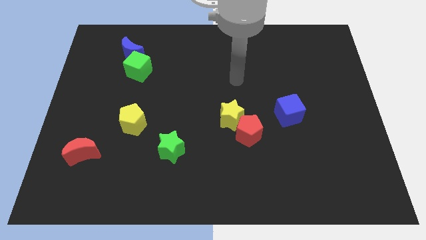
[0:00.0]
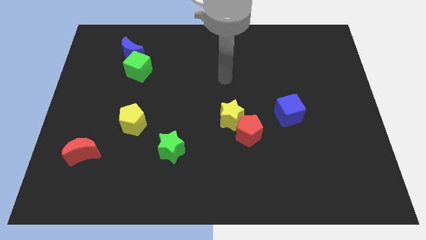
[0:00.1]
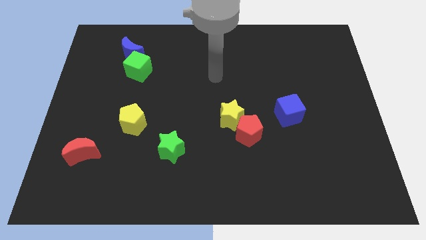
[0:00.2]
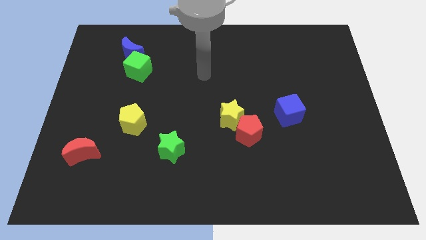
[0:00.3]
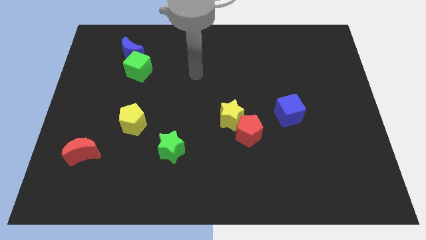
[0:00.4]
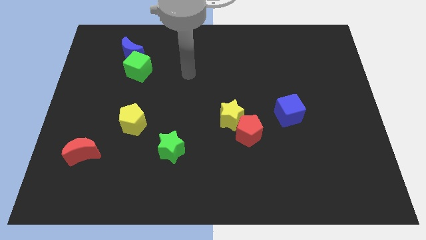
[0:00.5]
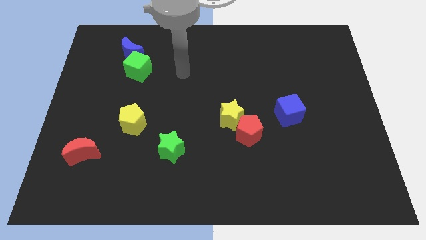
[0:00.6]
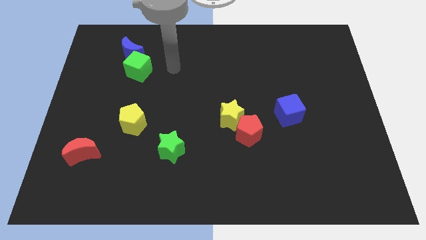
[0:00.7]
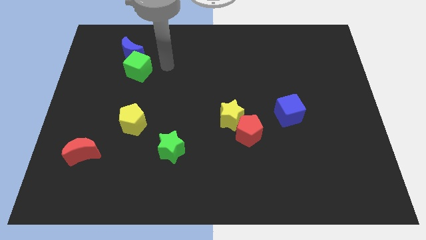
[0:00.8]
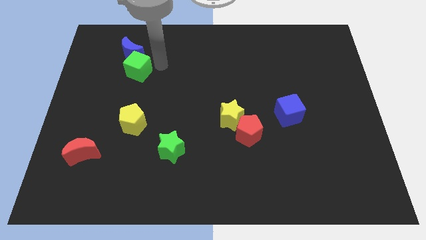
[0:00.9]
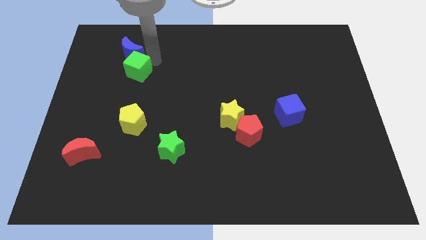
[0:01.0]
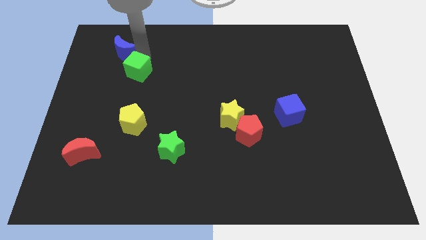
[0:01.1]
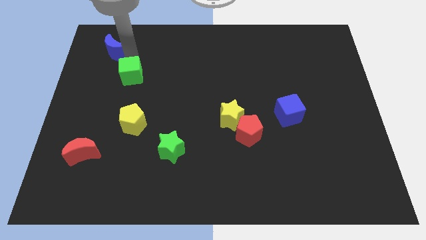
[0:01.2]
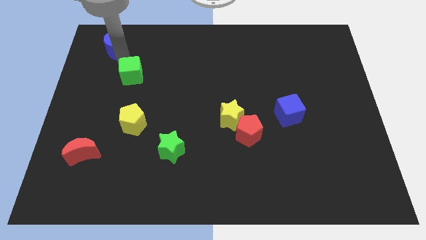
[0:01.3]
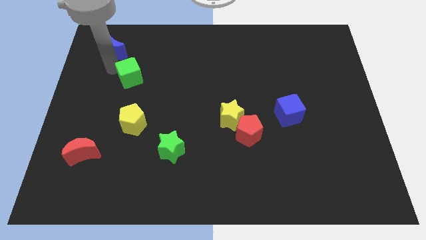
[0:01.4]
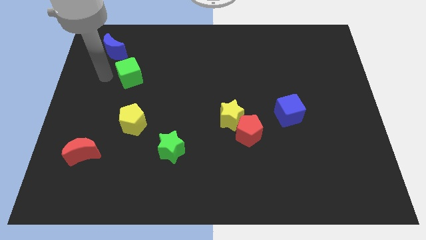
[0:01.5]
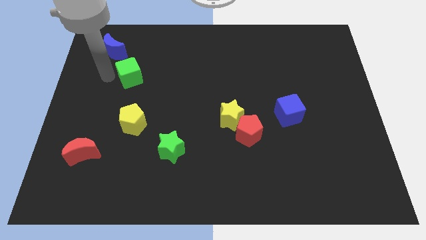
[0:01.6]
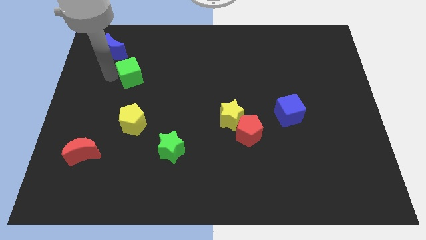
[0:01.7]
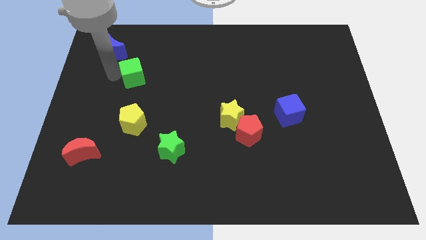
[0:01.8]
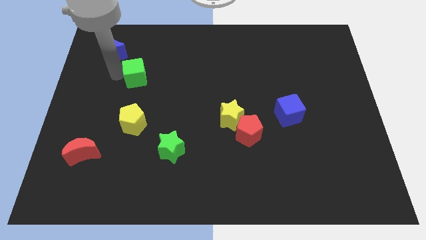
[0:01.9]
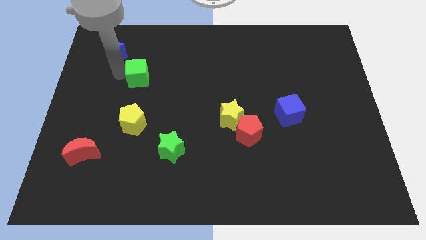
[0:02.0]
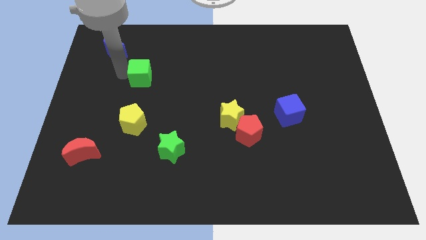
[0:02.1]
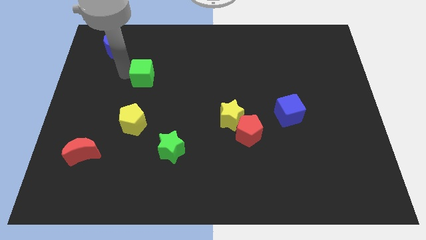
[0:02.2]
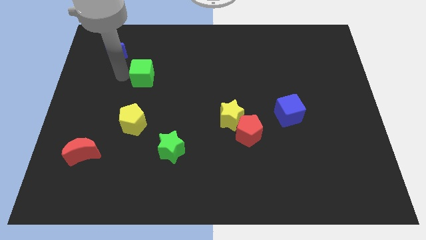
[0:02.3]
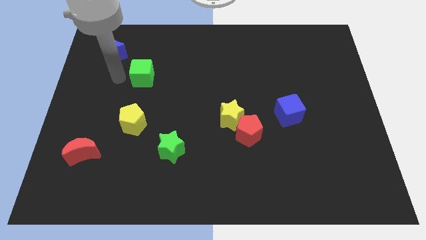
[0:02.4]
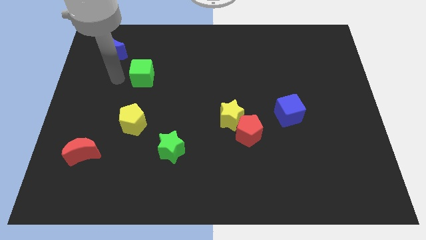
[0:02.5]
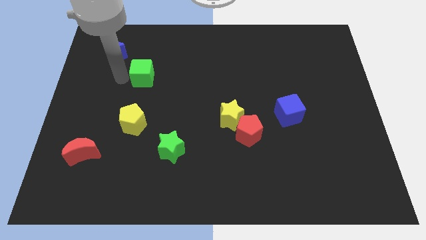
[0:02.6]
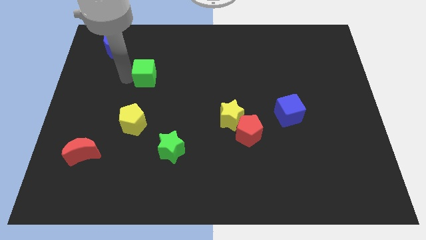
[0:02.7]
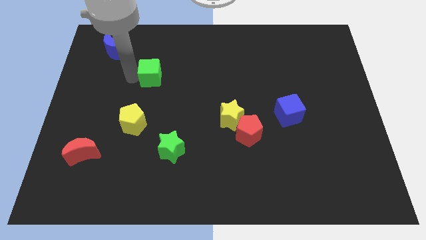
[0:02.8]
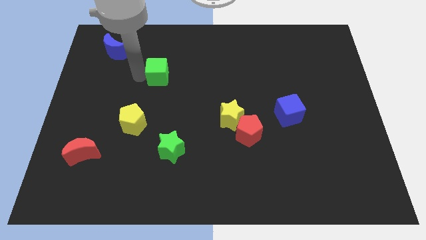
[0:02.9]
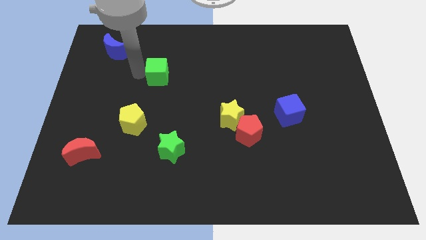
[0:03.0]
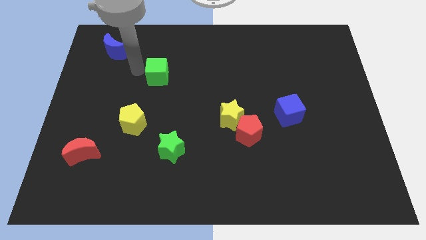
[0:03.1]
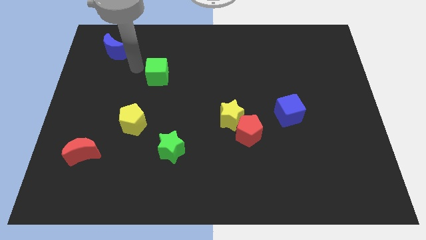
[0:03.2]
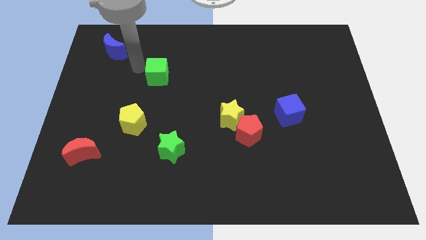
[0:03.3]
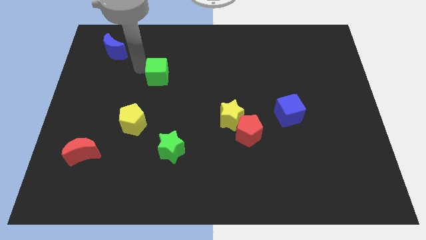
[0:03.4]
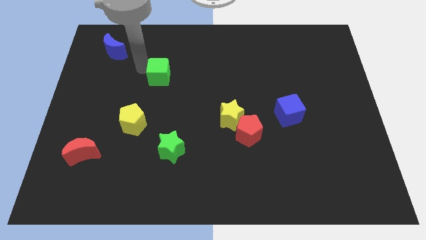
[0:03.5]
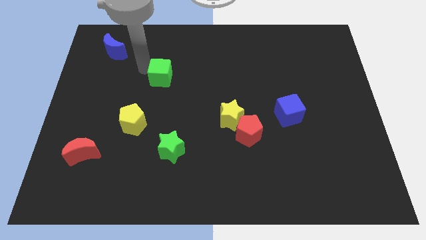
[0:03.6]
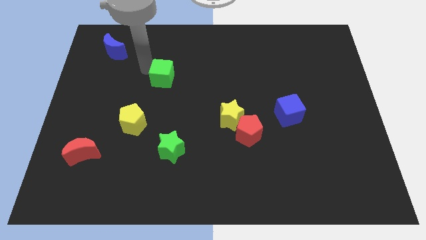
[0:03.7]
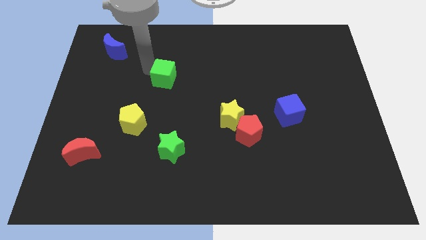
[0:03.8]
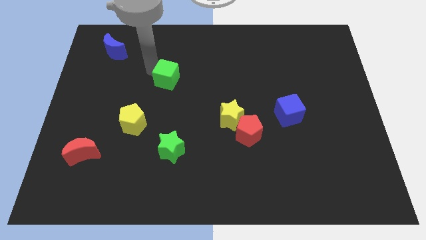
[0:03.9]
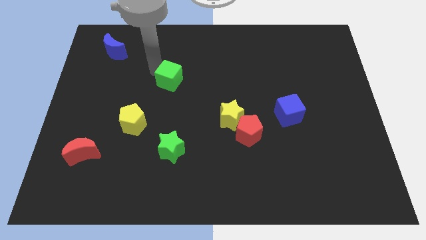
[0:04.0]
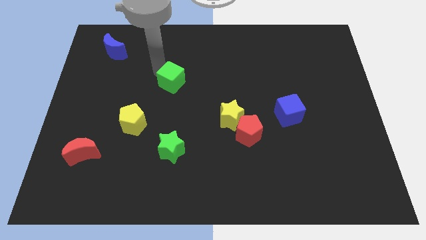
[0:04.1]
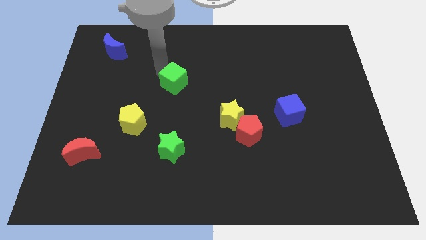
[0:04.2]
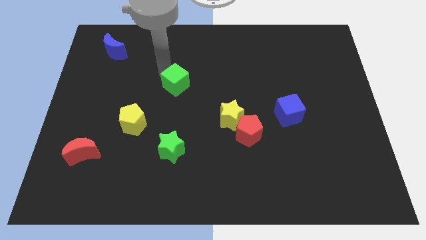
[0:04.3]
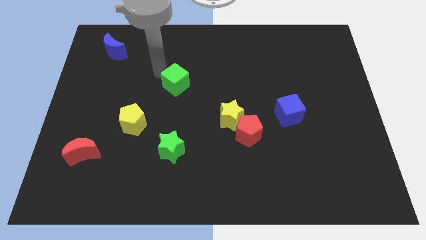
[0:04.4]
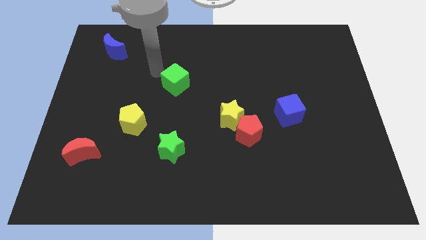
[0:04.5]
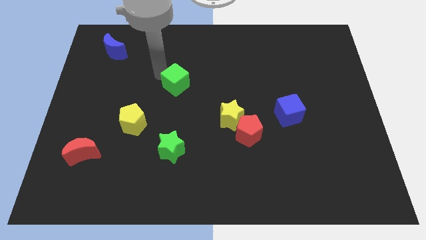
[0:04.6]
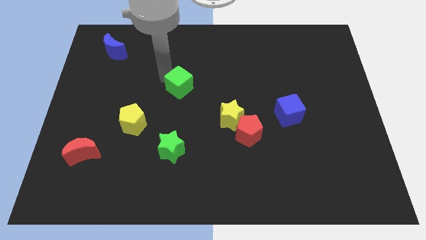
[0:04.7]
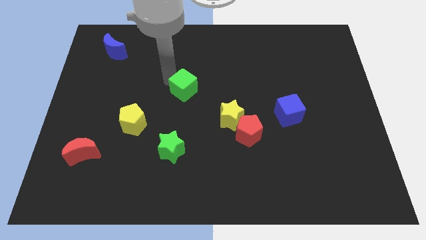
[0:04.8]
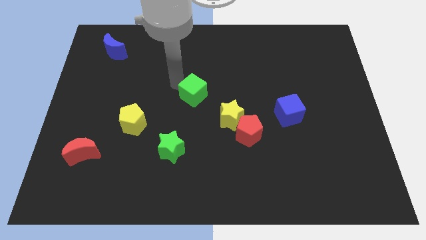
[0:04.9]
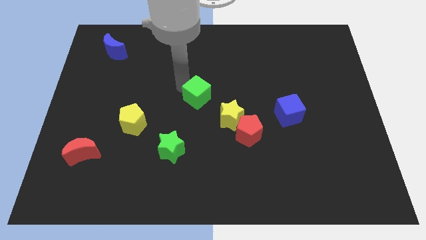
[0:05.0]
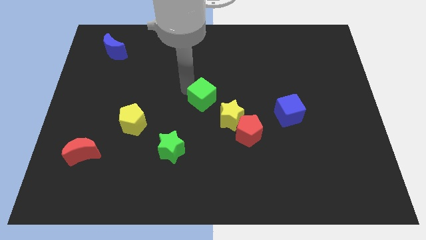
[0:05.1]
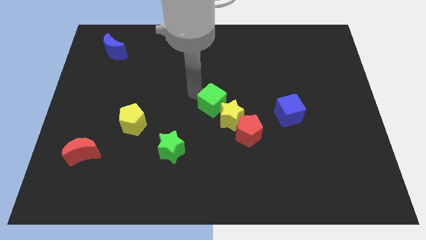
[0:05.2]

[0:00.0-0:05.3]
put the green cube to the yellow star

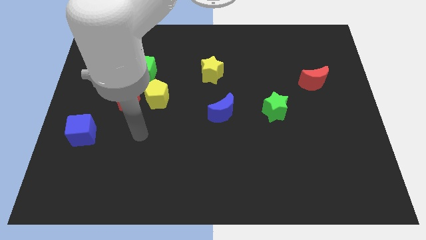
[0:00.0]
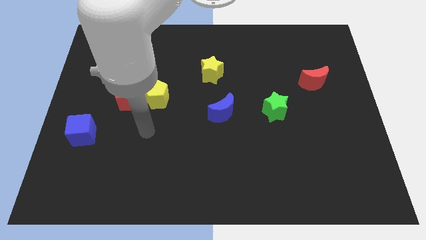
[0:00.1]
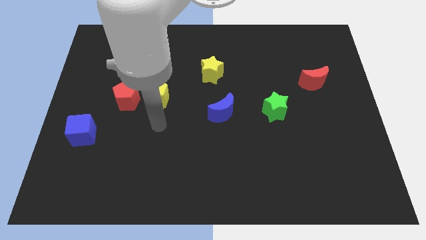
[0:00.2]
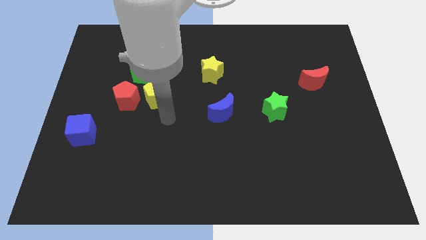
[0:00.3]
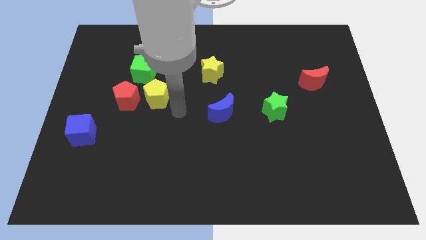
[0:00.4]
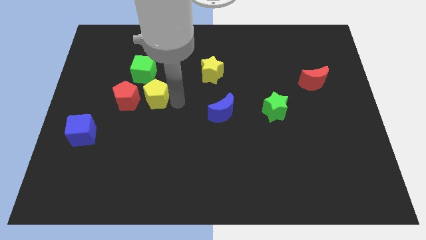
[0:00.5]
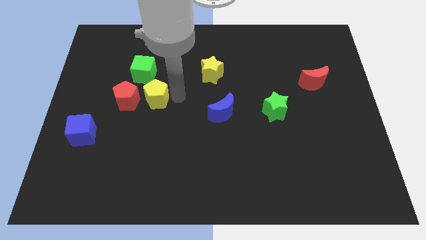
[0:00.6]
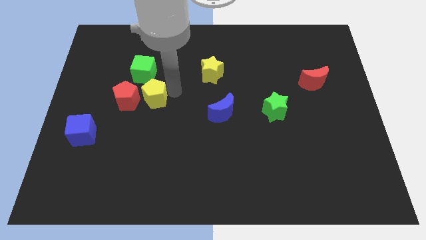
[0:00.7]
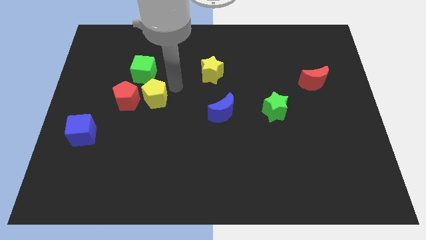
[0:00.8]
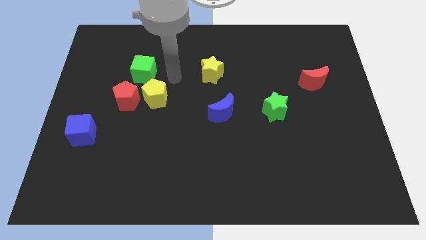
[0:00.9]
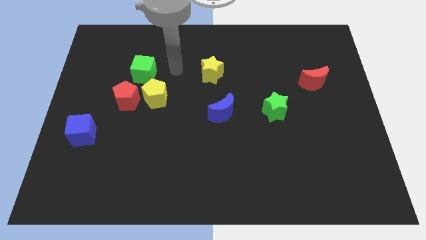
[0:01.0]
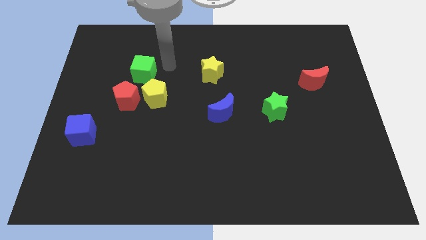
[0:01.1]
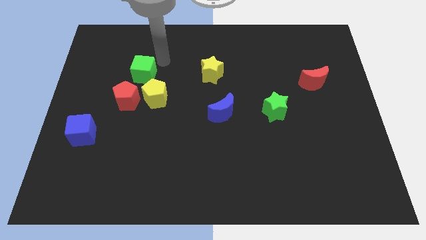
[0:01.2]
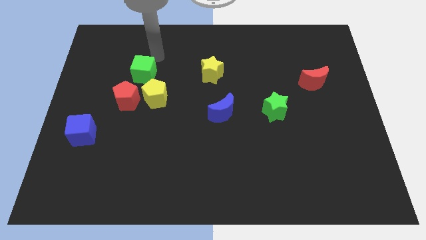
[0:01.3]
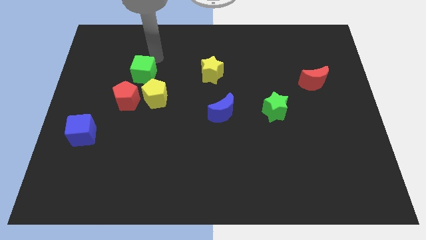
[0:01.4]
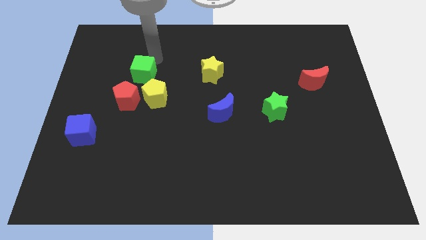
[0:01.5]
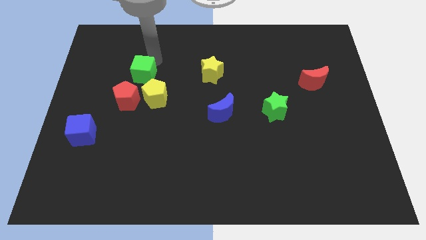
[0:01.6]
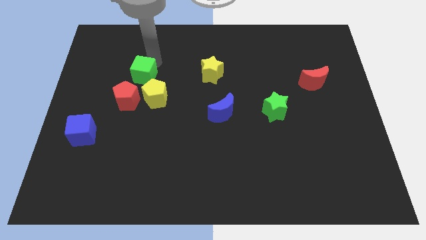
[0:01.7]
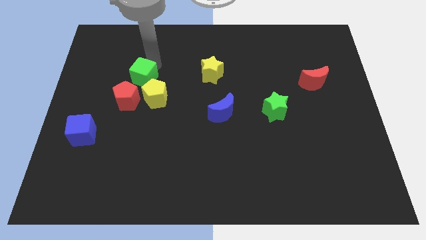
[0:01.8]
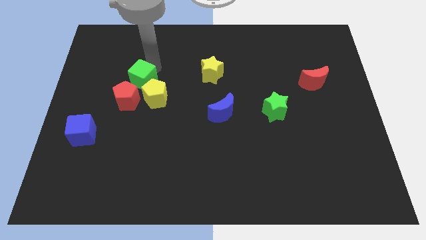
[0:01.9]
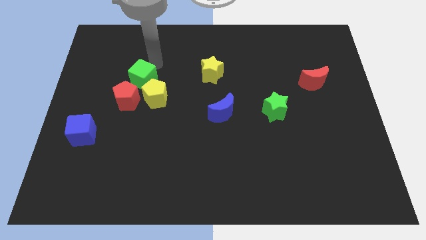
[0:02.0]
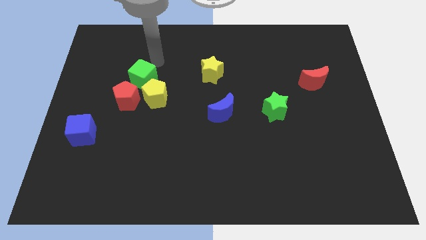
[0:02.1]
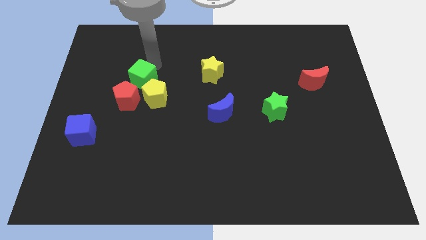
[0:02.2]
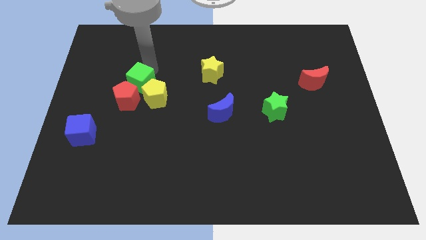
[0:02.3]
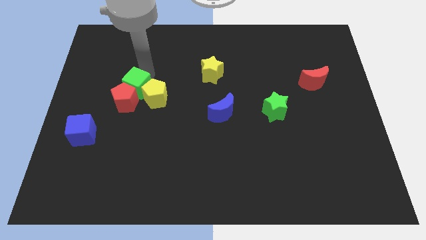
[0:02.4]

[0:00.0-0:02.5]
push the green cube to the red pentagon
